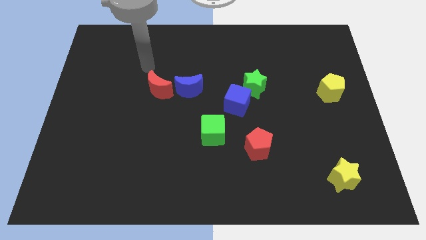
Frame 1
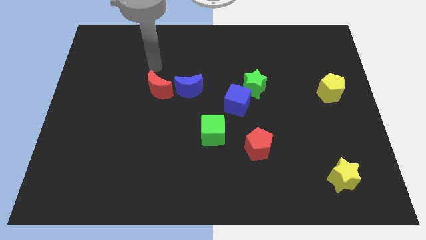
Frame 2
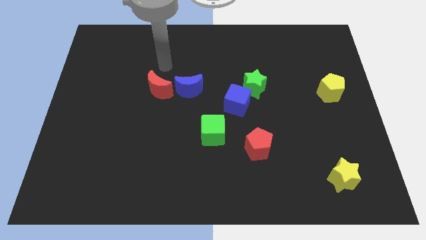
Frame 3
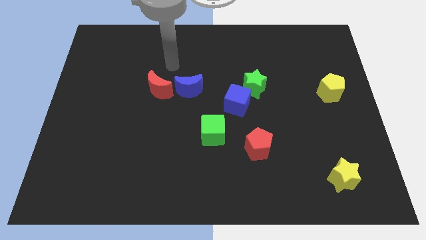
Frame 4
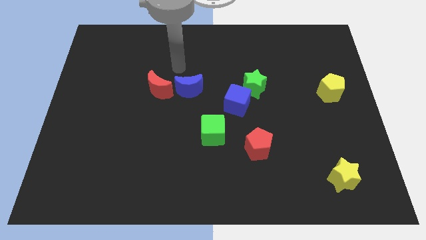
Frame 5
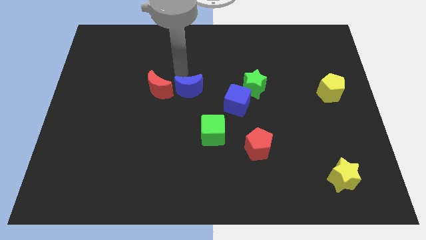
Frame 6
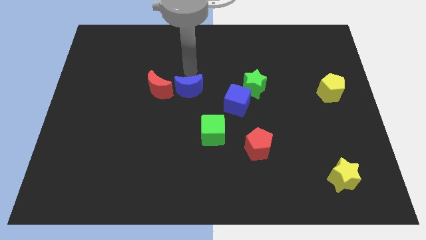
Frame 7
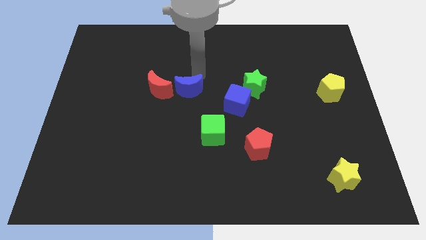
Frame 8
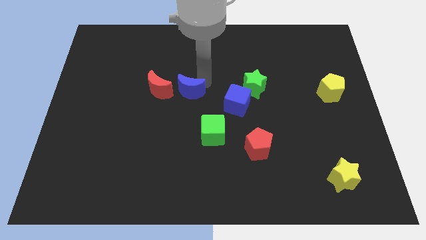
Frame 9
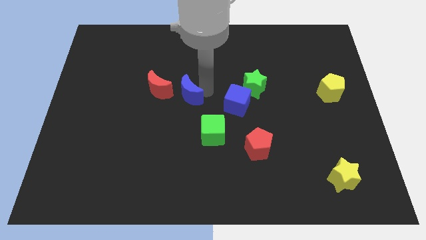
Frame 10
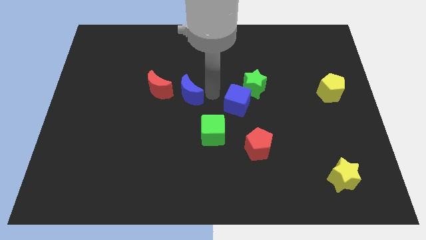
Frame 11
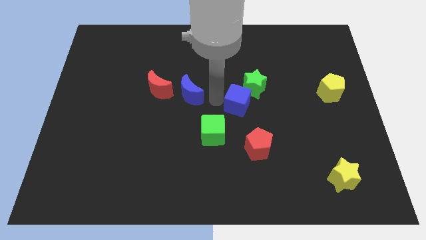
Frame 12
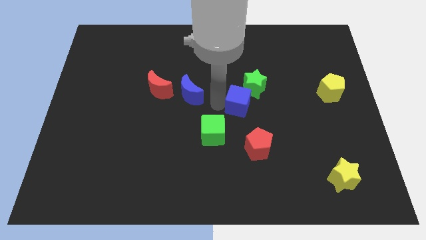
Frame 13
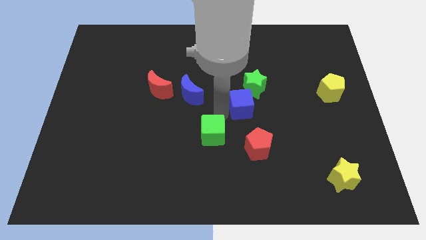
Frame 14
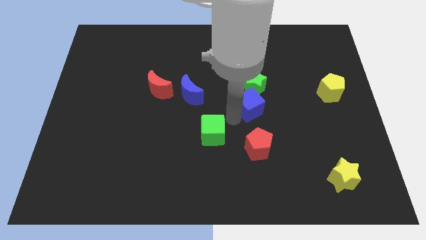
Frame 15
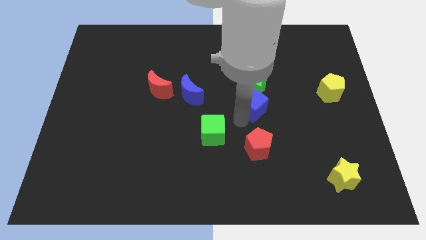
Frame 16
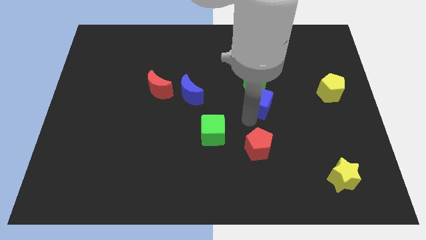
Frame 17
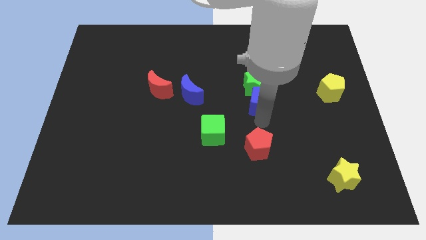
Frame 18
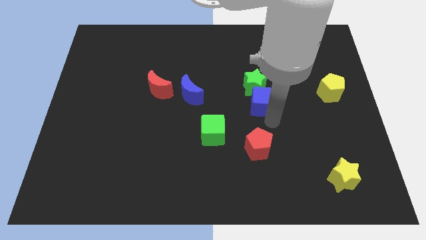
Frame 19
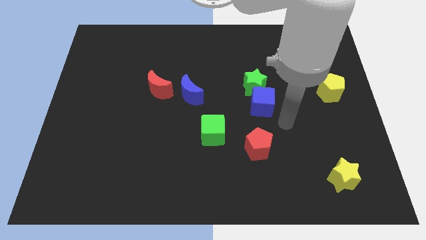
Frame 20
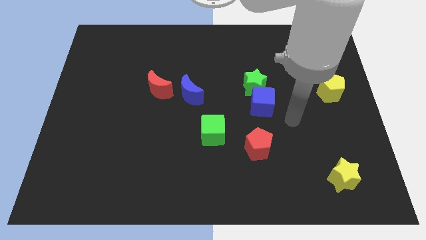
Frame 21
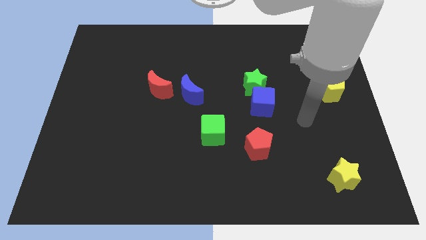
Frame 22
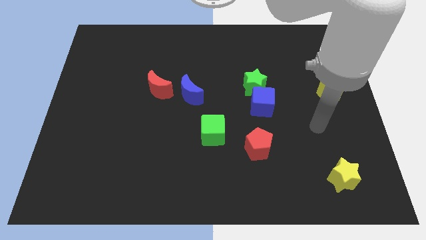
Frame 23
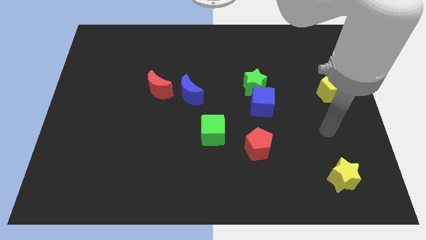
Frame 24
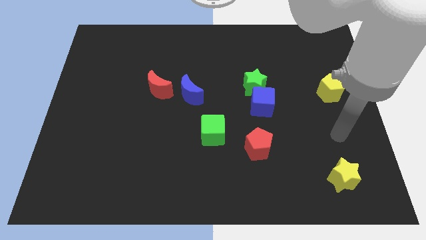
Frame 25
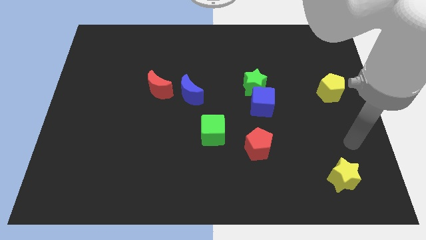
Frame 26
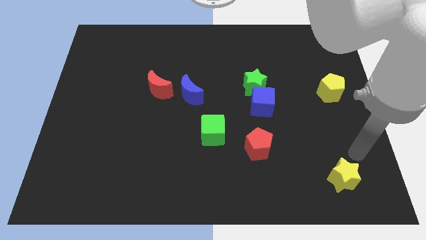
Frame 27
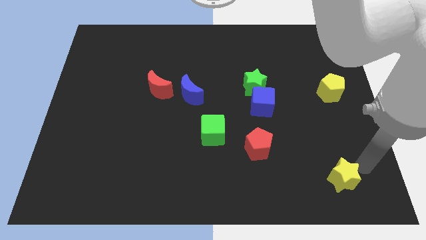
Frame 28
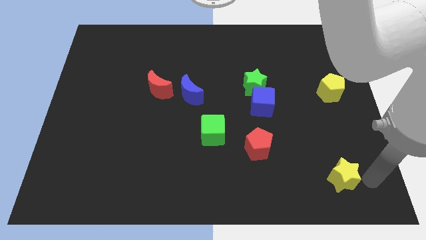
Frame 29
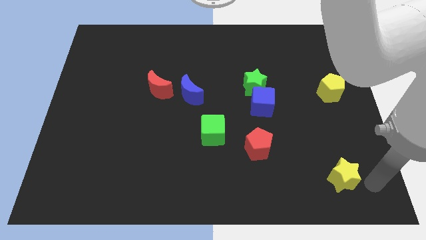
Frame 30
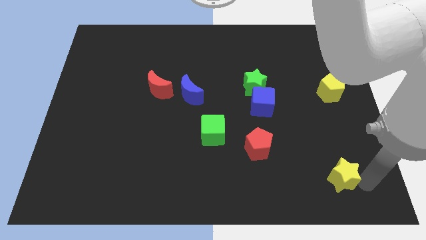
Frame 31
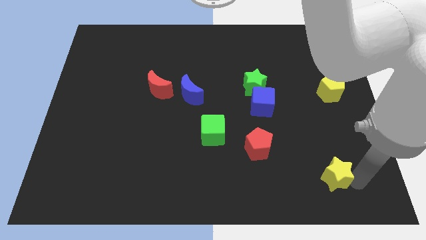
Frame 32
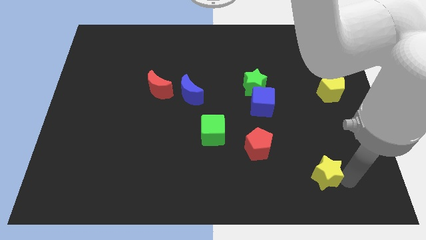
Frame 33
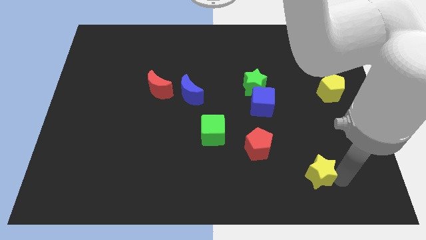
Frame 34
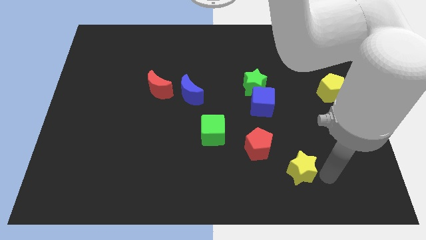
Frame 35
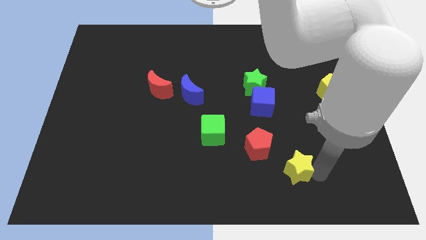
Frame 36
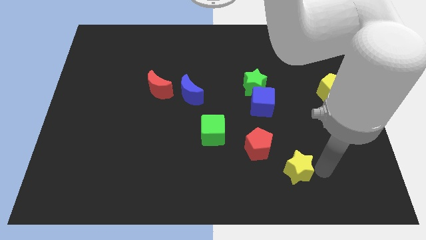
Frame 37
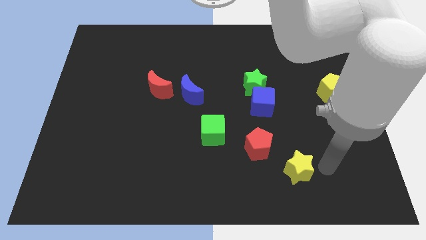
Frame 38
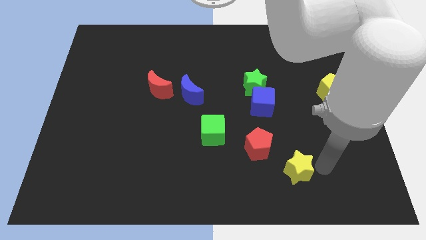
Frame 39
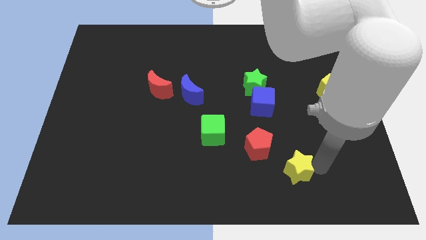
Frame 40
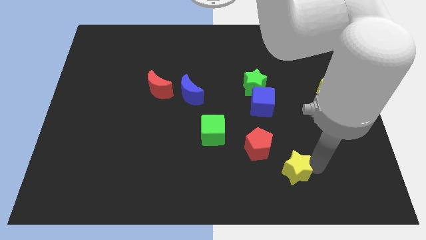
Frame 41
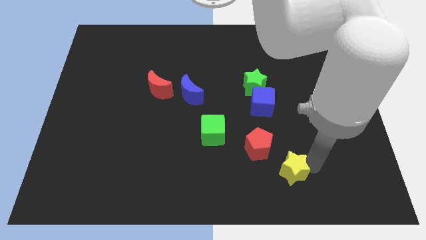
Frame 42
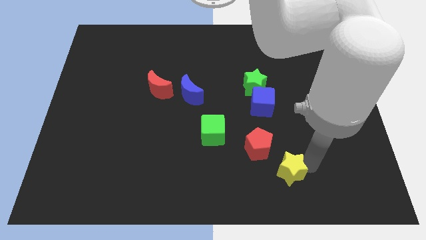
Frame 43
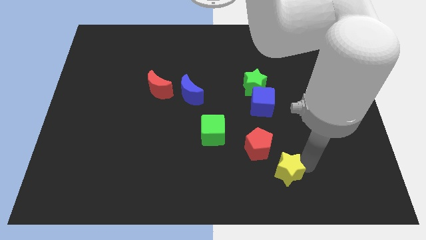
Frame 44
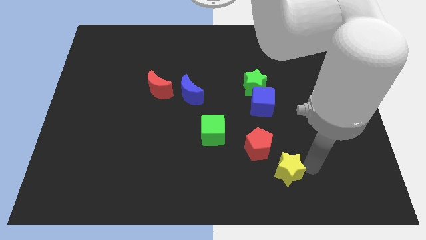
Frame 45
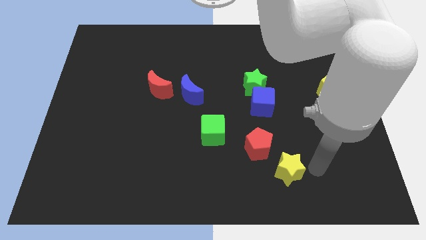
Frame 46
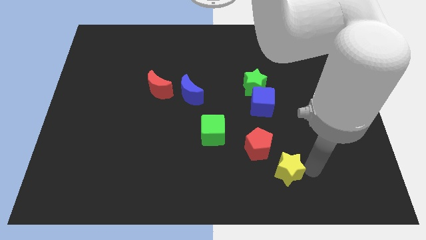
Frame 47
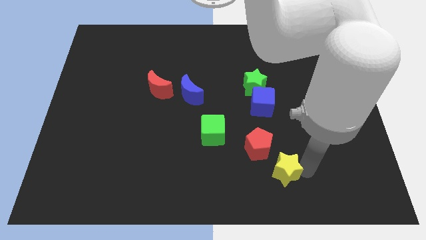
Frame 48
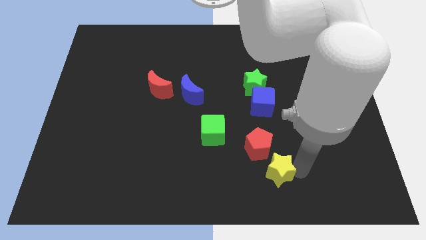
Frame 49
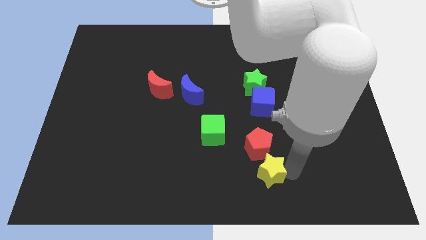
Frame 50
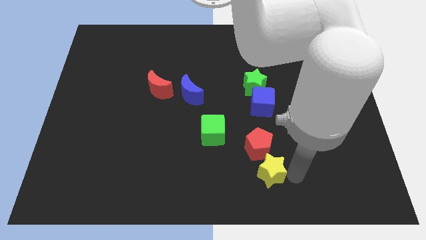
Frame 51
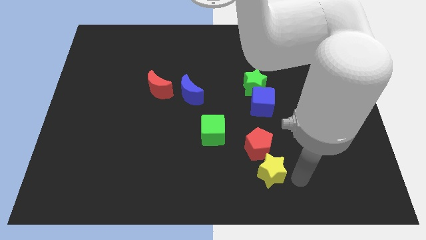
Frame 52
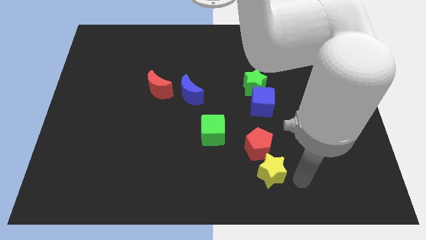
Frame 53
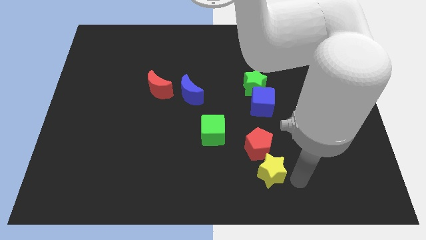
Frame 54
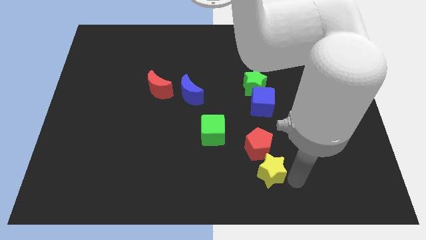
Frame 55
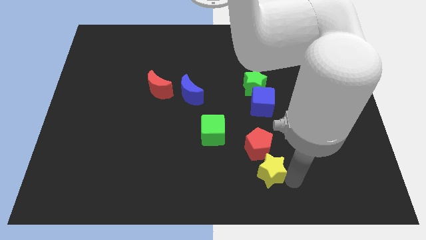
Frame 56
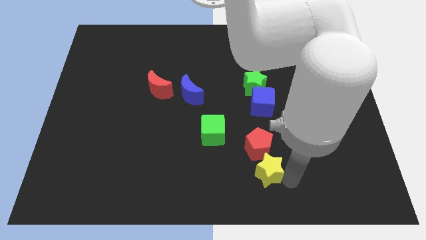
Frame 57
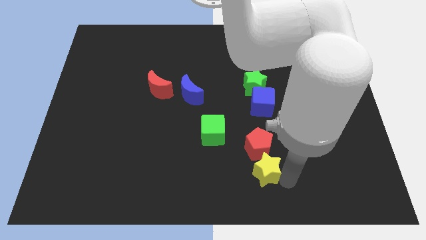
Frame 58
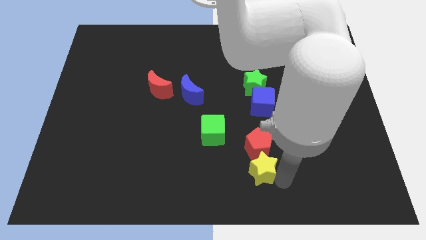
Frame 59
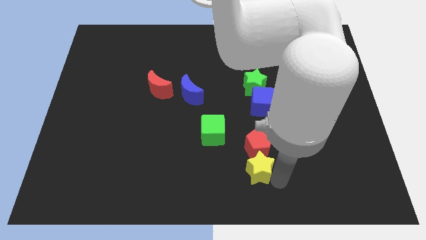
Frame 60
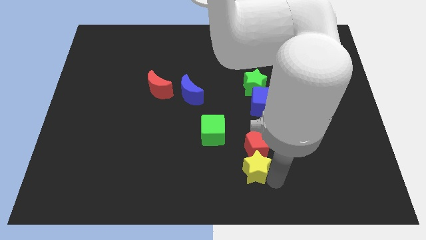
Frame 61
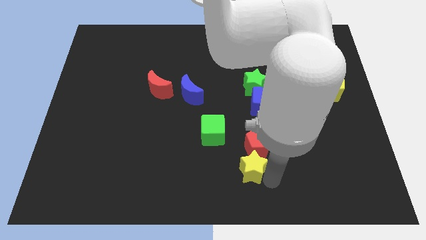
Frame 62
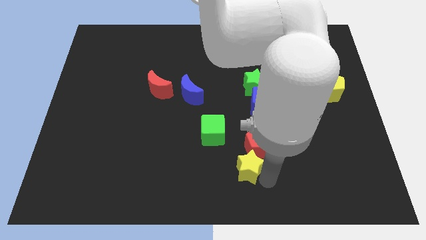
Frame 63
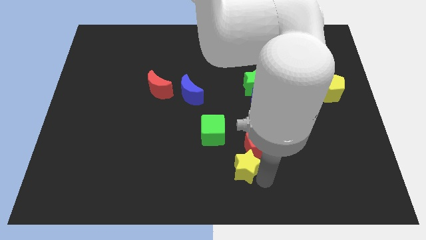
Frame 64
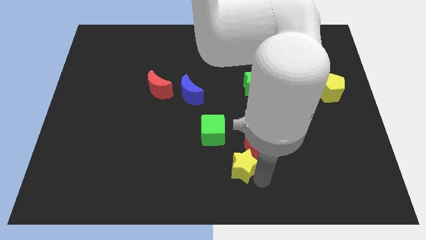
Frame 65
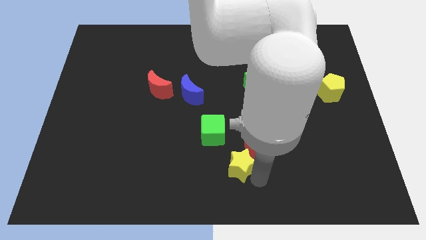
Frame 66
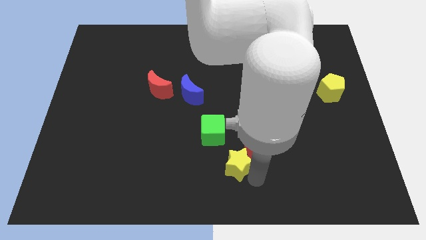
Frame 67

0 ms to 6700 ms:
push the yellow star left of the red pentagon
